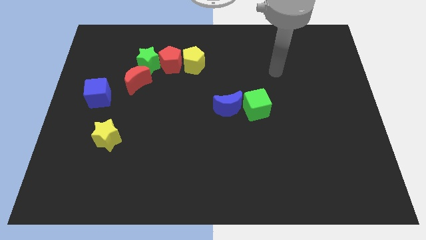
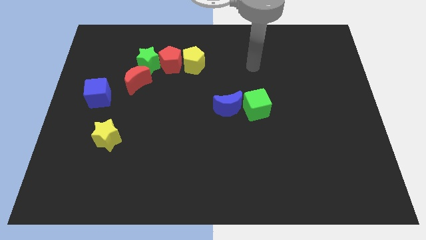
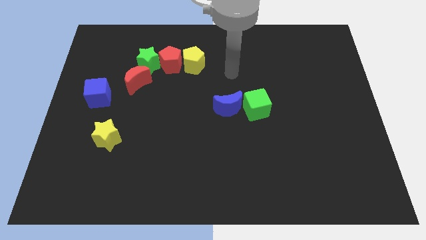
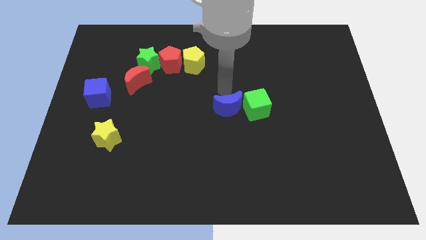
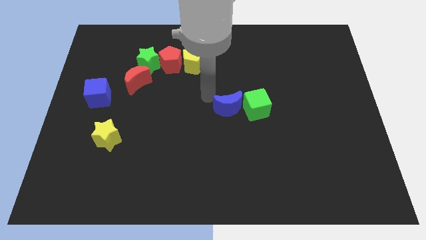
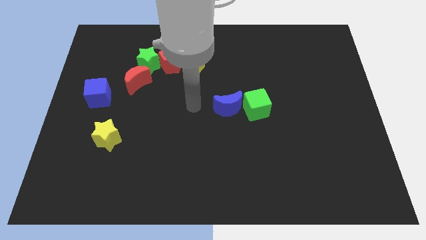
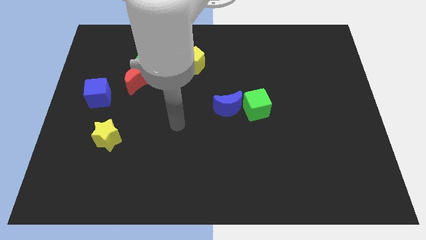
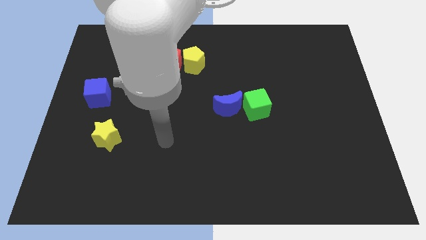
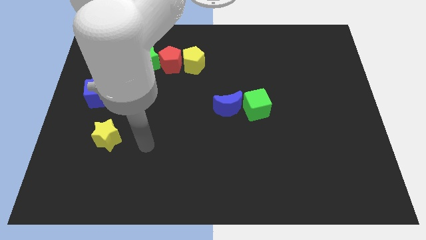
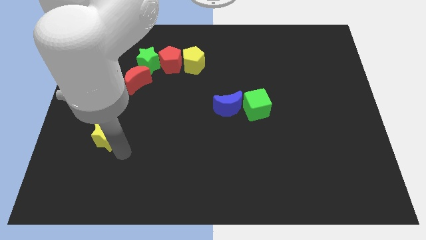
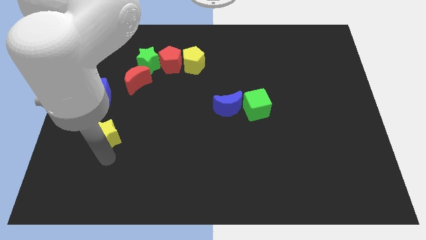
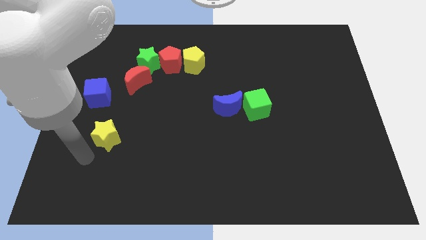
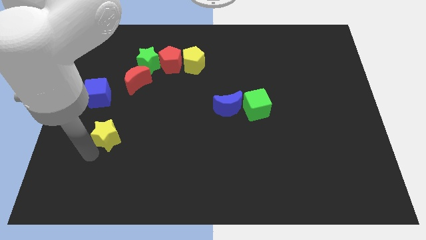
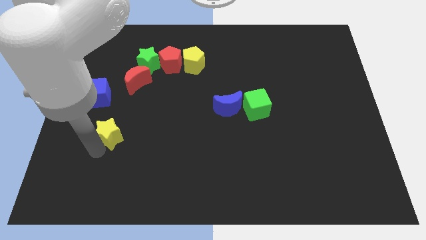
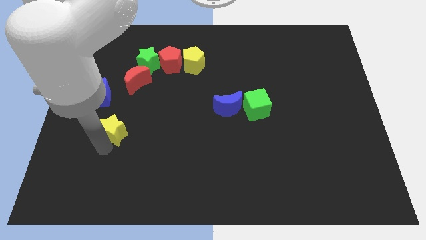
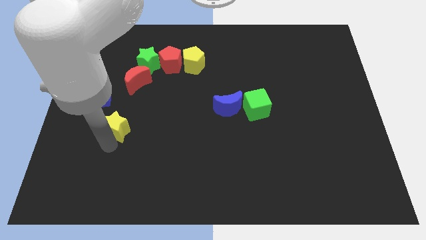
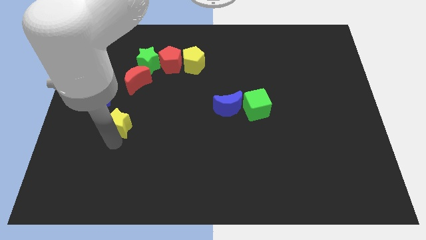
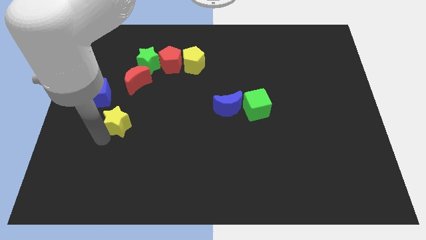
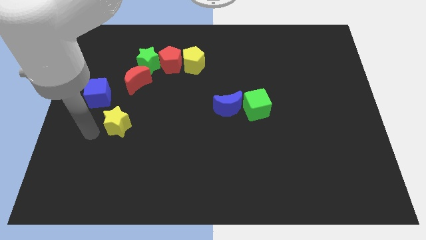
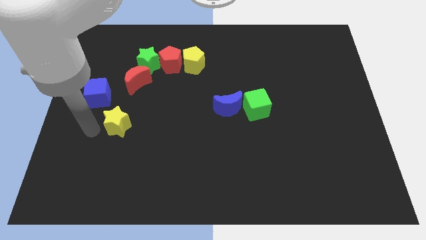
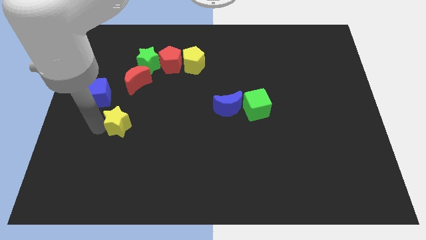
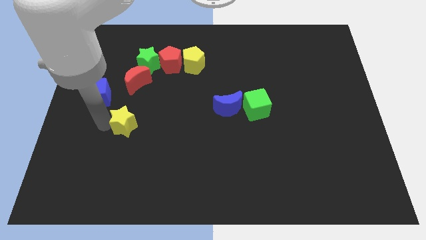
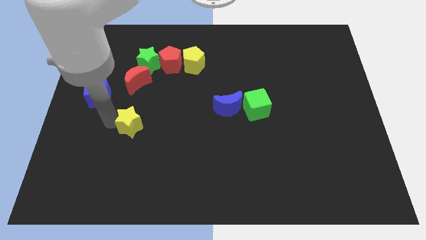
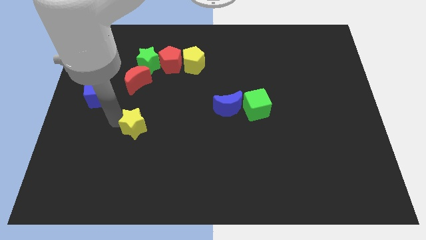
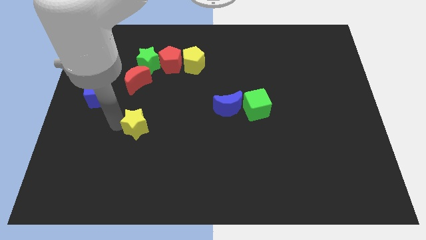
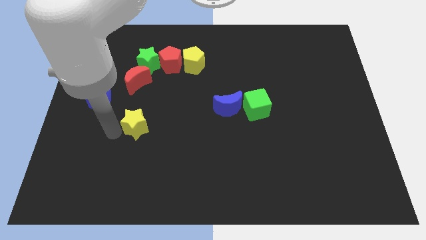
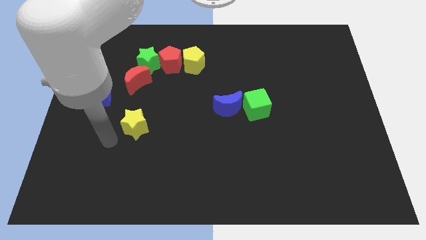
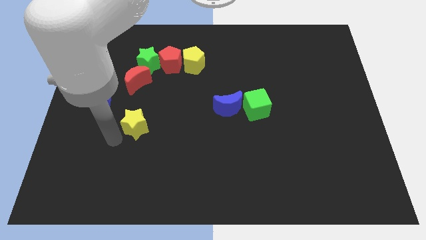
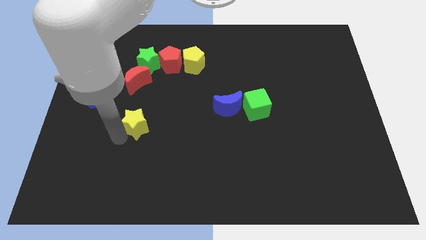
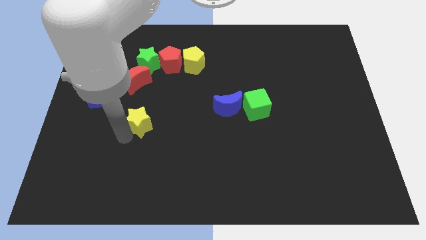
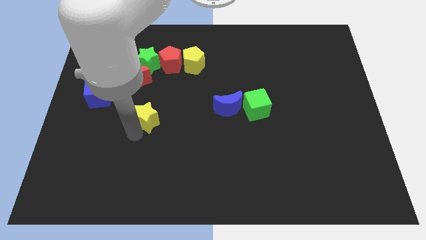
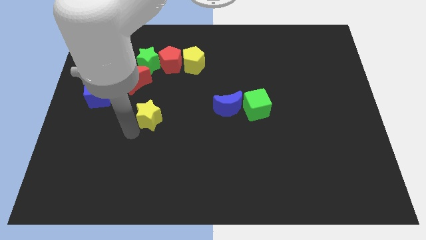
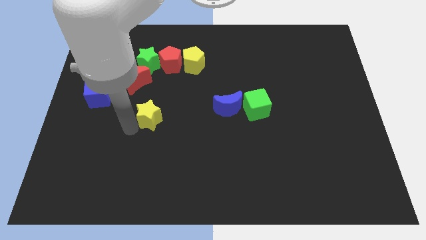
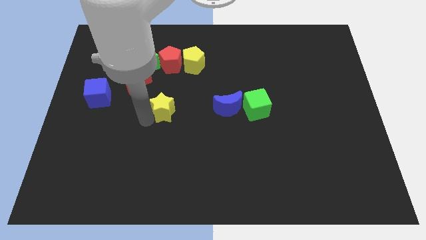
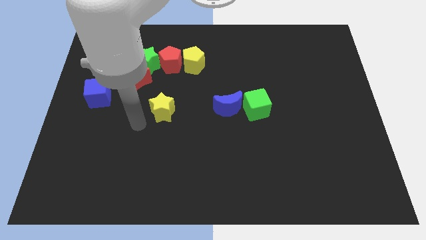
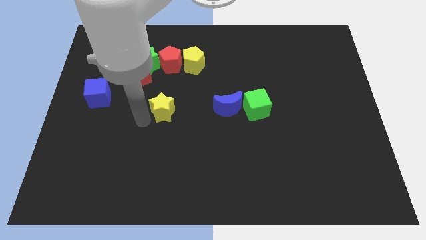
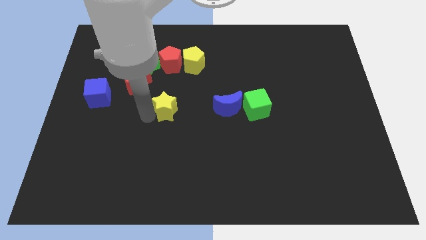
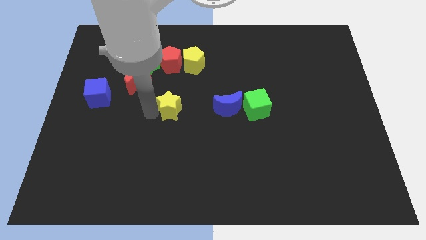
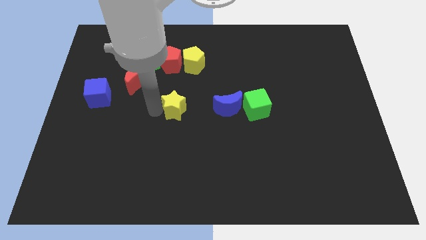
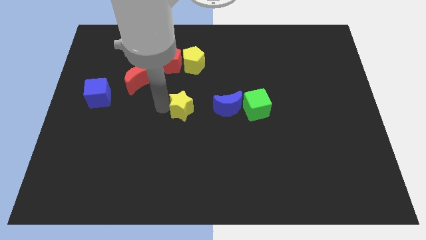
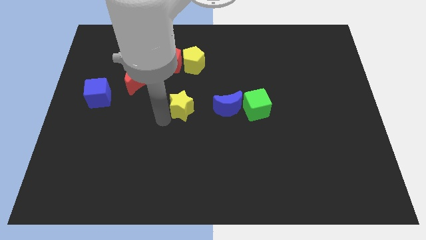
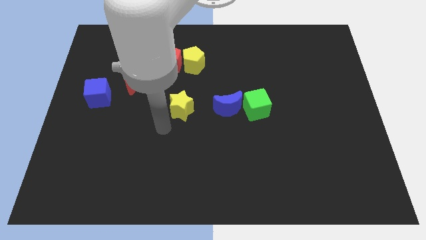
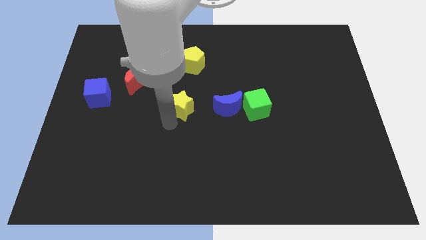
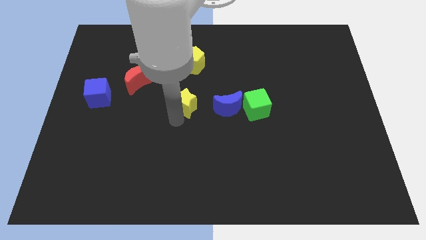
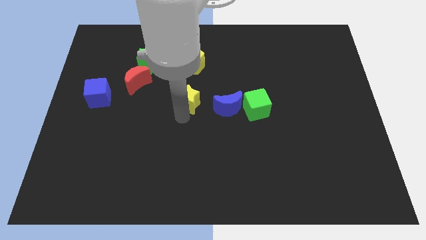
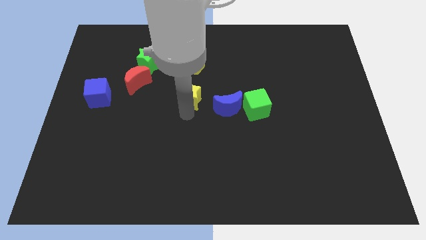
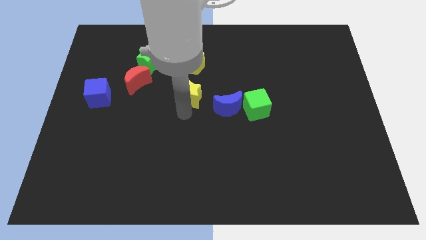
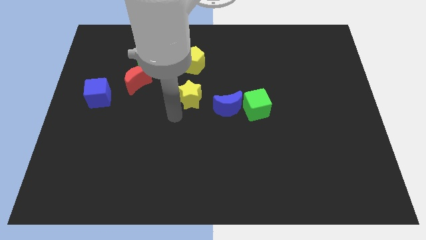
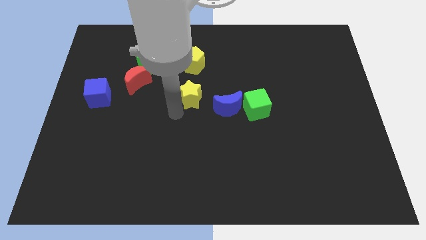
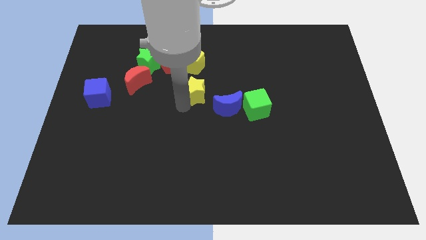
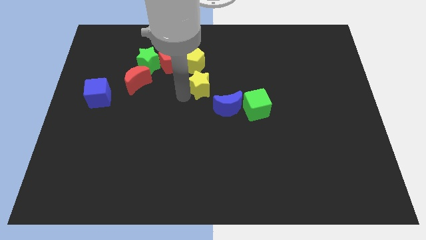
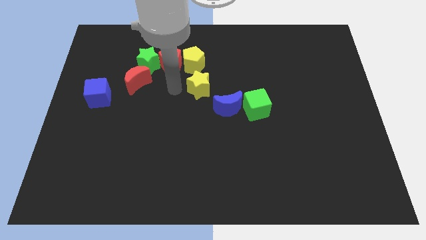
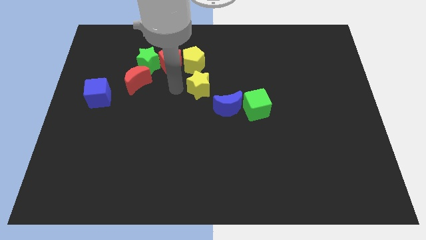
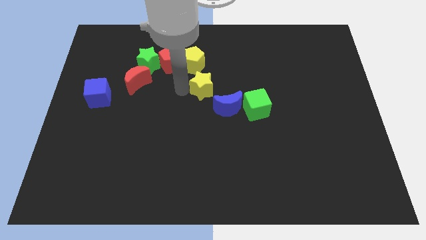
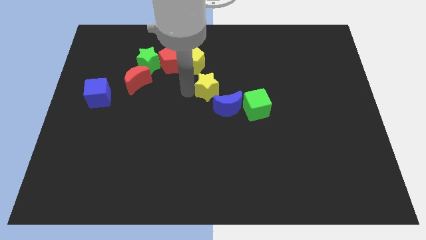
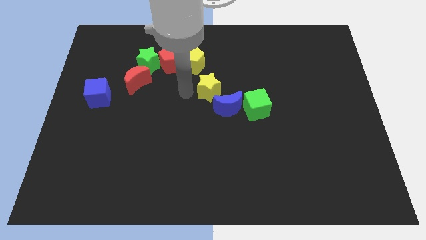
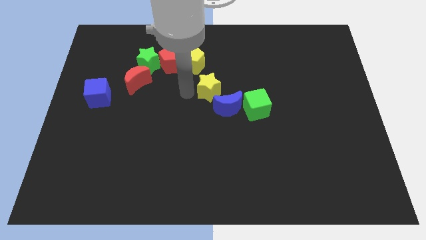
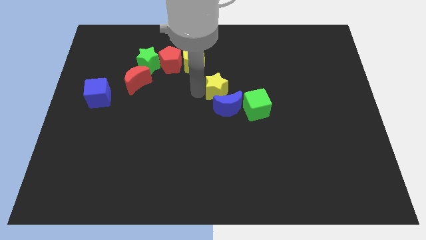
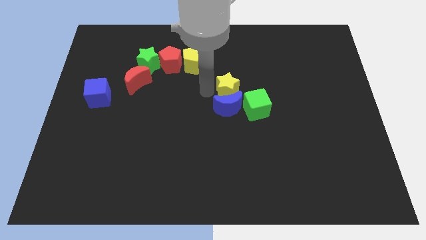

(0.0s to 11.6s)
put the yellow star to the top right of the blue moon

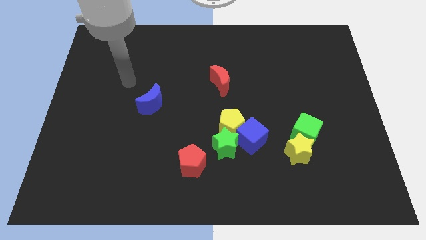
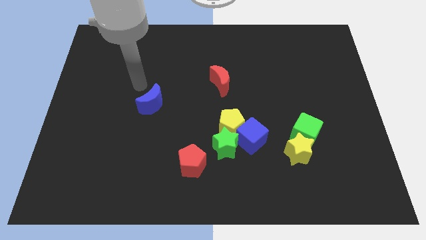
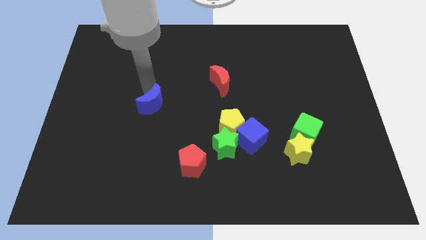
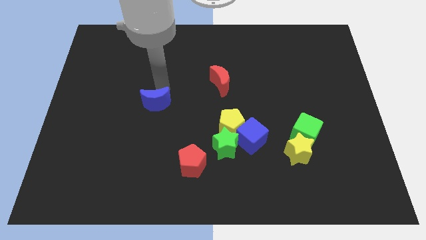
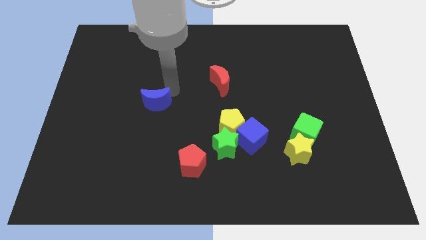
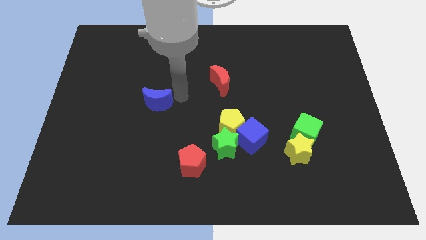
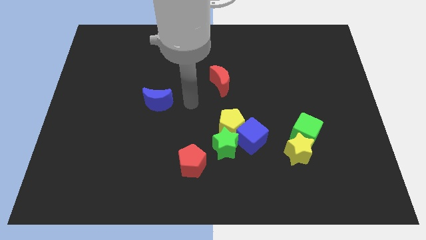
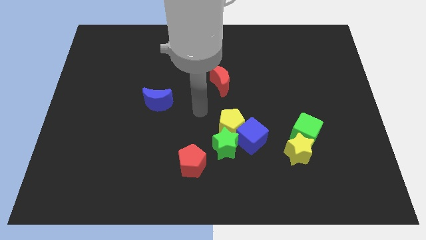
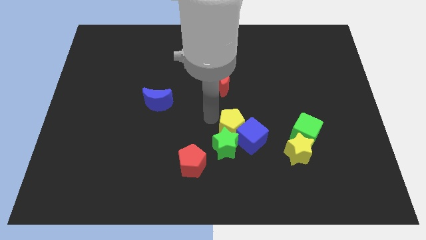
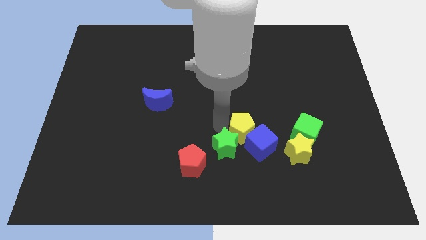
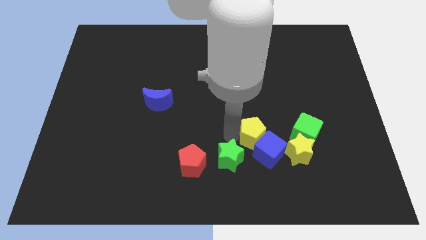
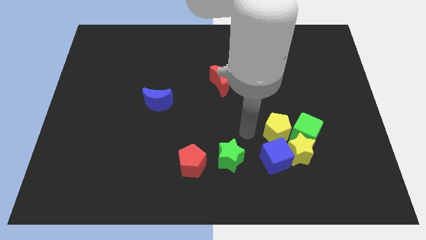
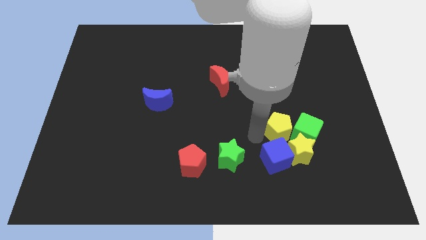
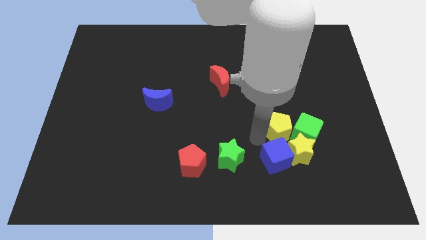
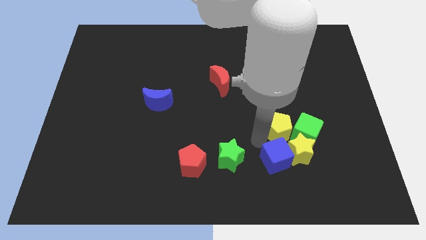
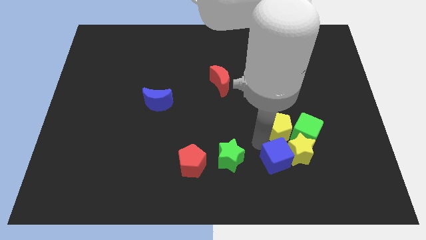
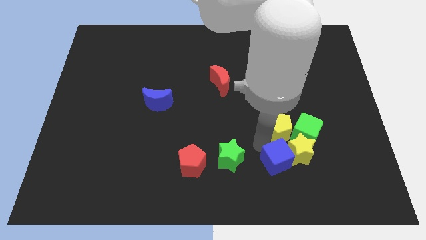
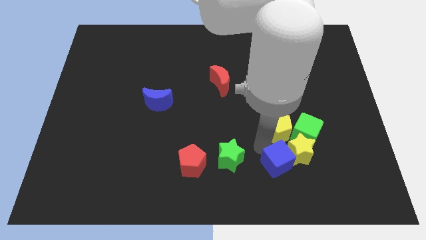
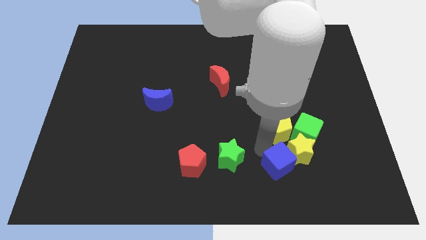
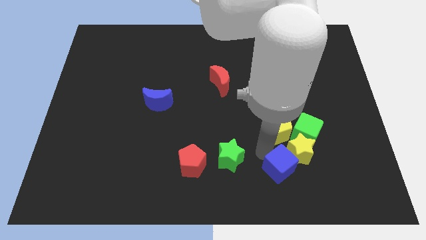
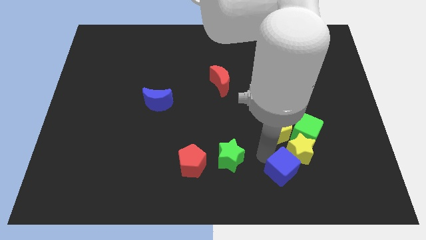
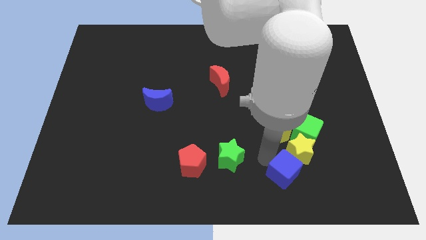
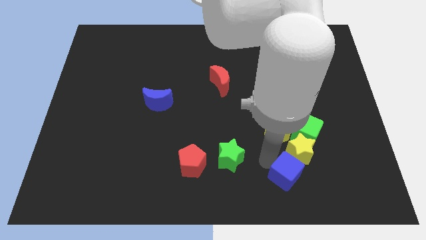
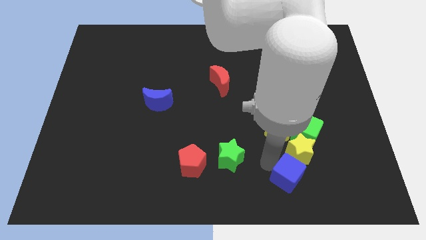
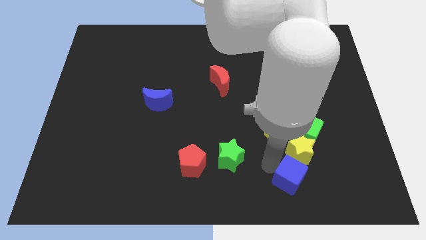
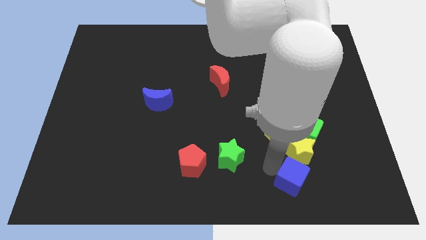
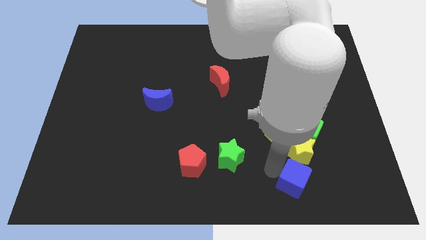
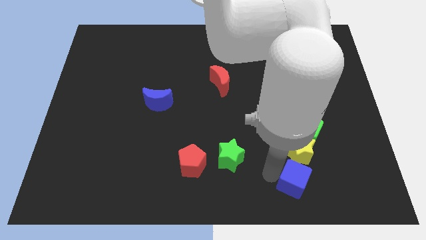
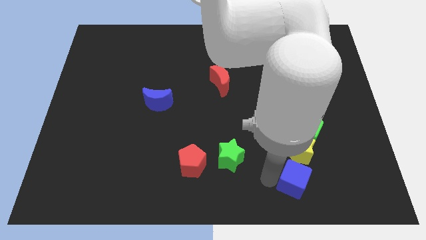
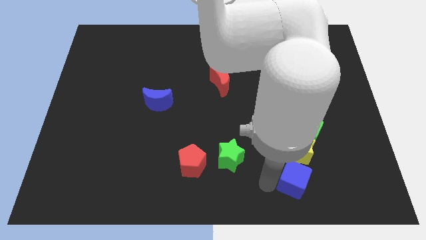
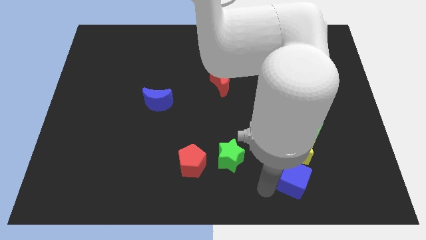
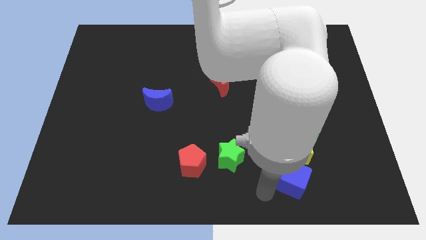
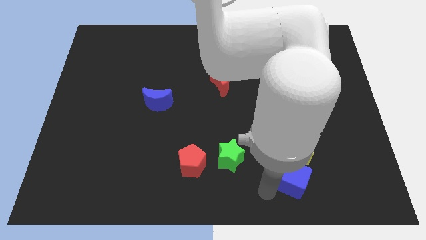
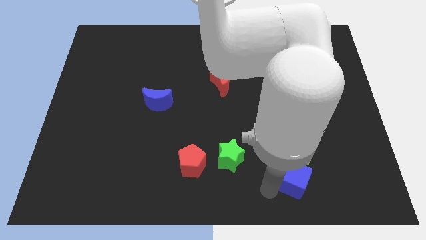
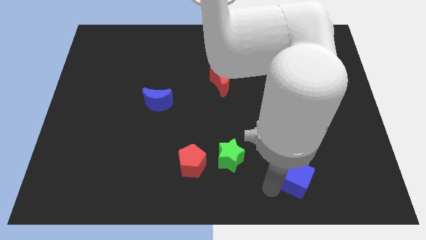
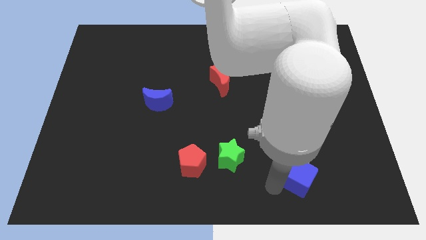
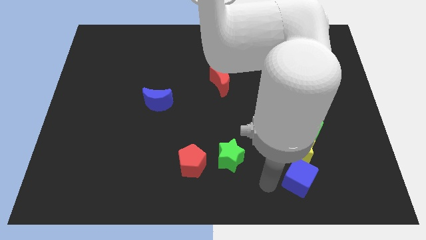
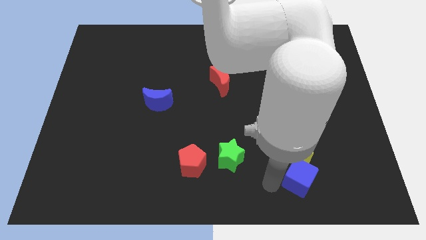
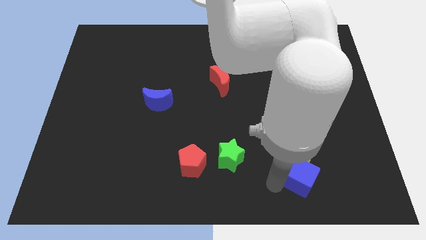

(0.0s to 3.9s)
push the blue cube diagonally down and to the right of the yellow star
